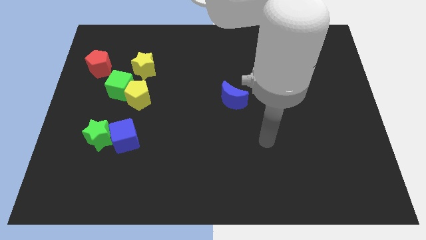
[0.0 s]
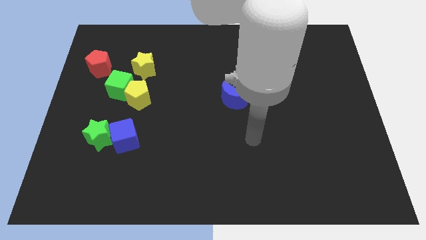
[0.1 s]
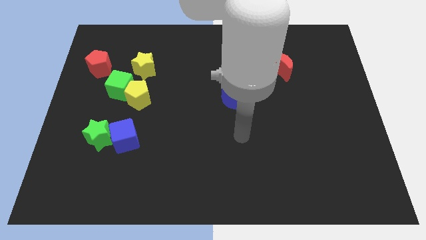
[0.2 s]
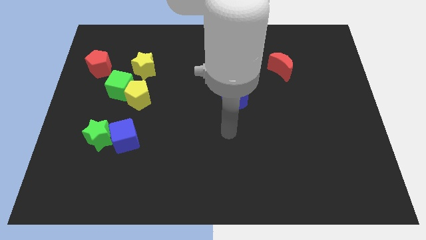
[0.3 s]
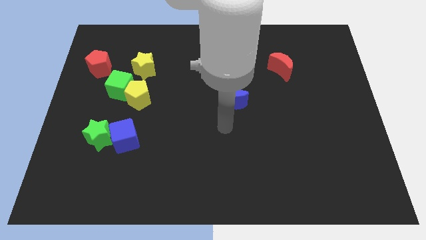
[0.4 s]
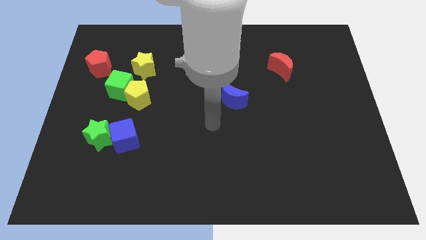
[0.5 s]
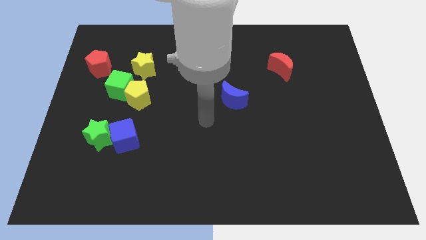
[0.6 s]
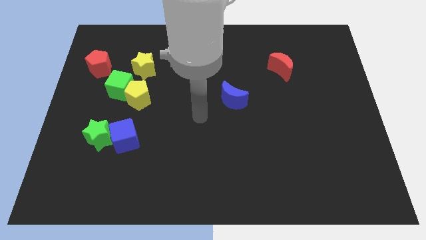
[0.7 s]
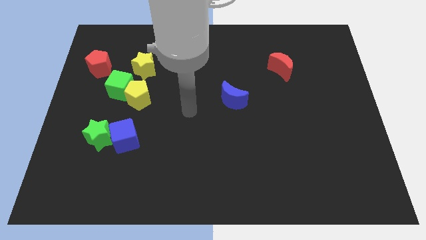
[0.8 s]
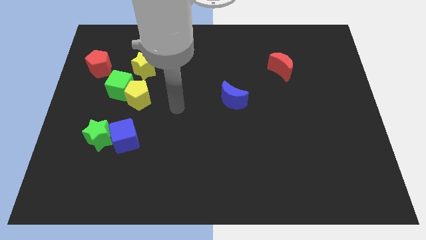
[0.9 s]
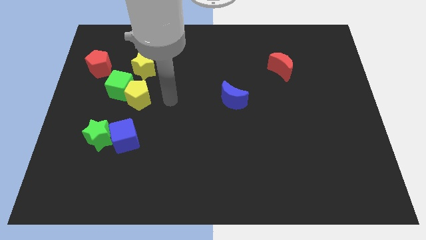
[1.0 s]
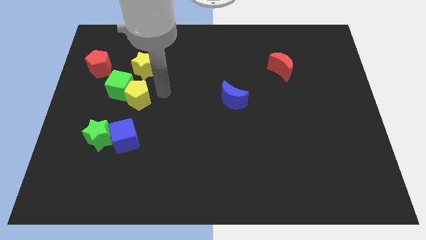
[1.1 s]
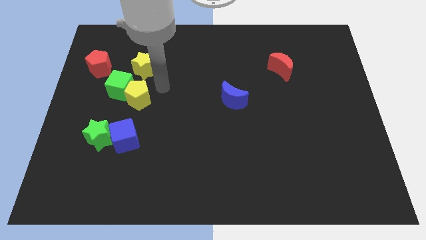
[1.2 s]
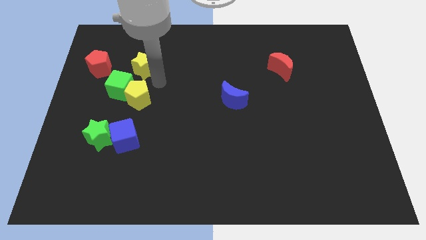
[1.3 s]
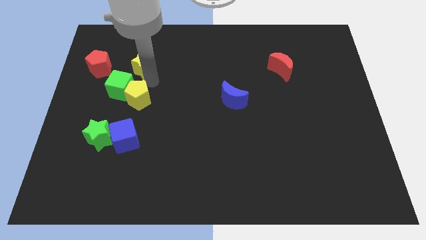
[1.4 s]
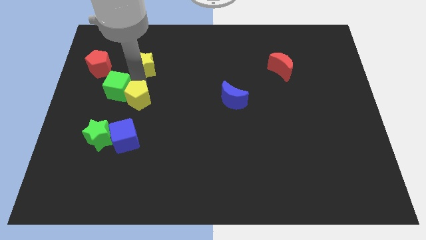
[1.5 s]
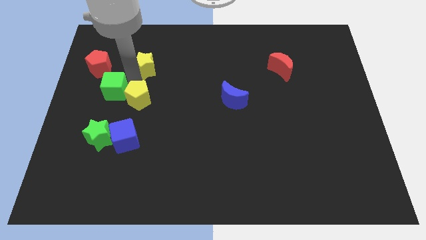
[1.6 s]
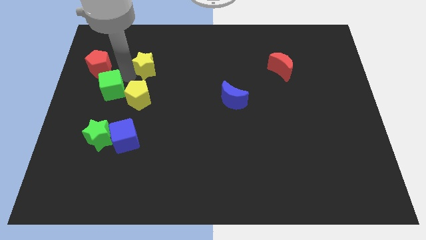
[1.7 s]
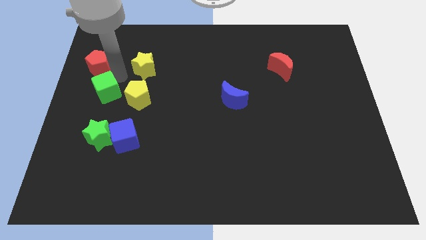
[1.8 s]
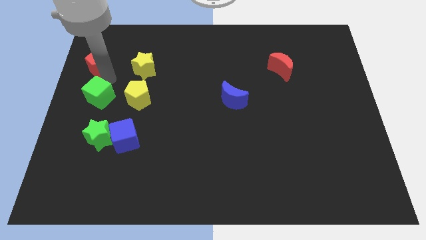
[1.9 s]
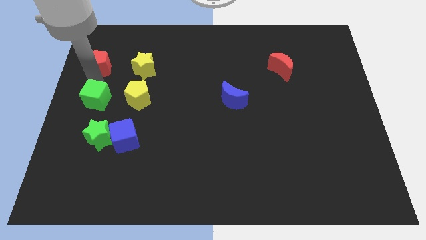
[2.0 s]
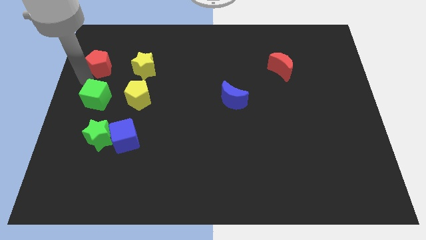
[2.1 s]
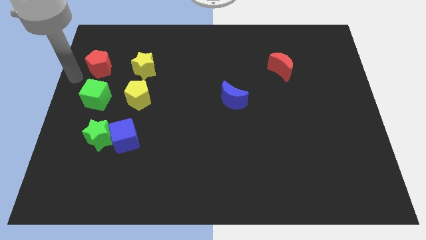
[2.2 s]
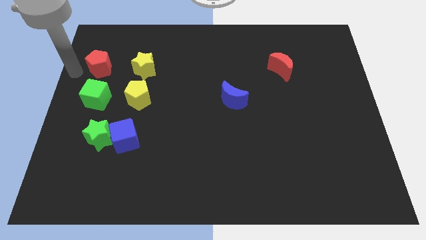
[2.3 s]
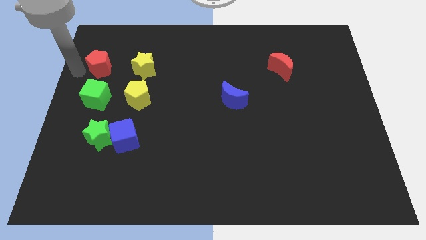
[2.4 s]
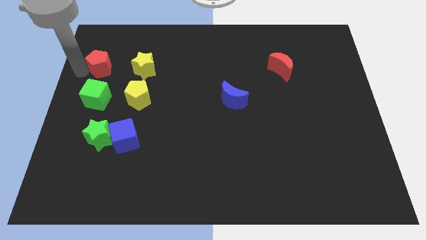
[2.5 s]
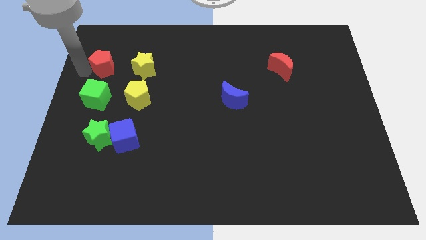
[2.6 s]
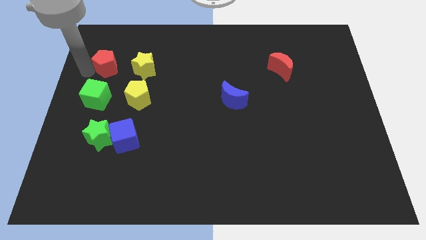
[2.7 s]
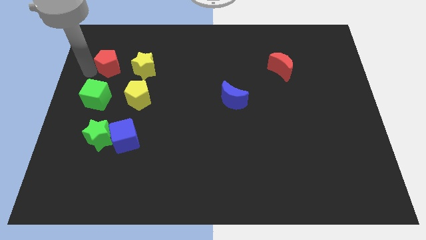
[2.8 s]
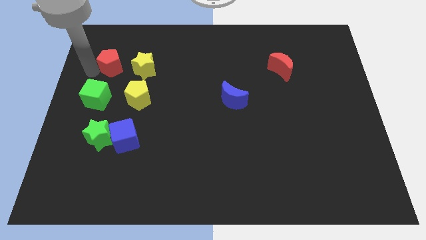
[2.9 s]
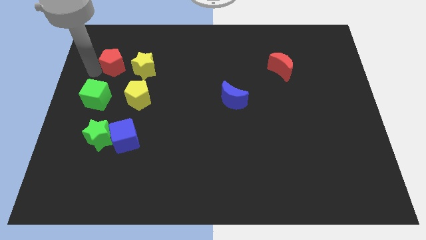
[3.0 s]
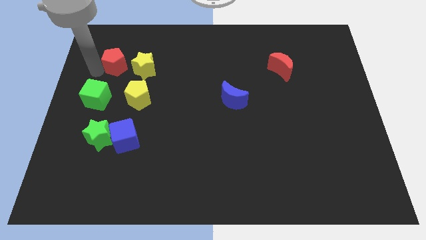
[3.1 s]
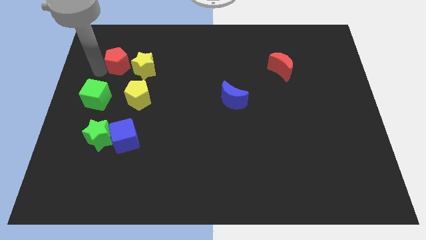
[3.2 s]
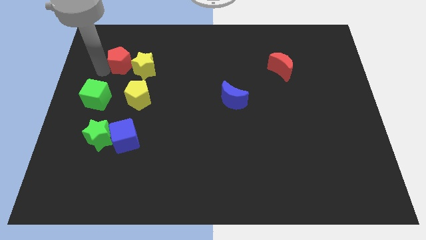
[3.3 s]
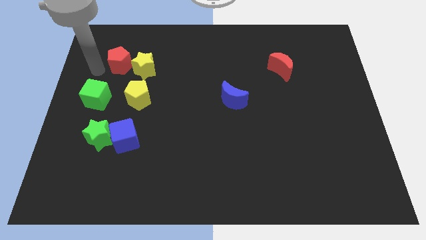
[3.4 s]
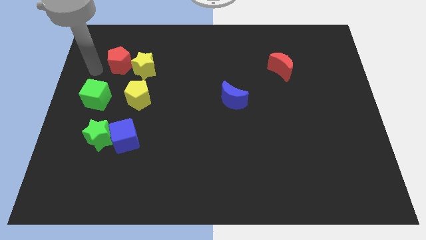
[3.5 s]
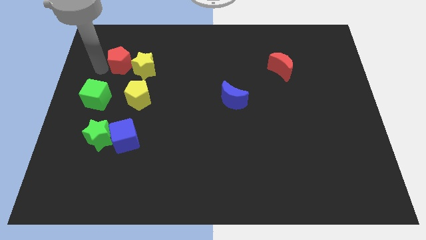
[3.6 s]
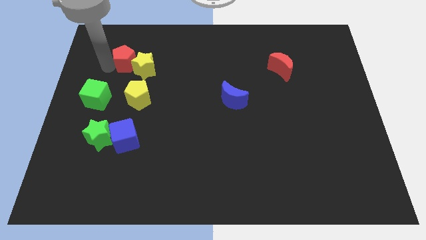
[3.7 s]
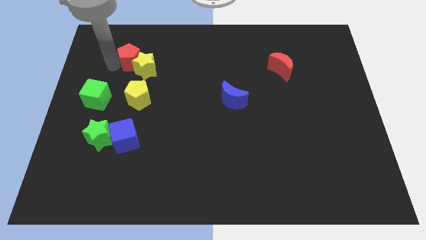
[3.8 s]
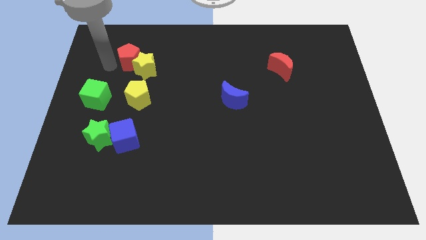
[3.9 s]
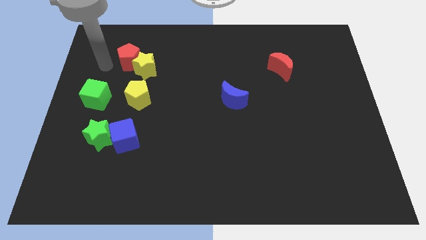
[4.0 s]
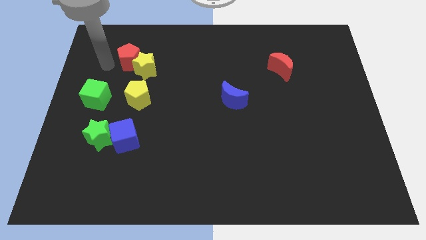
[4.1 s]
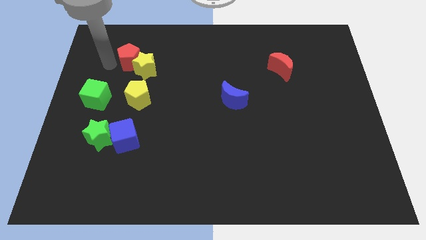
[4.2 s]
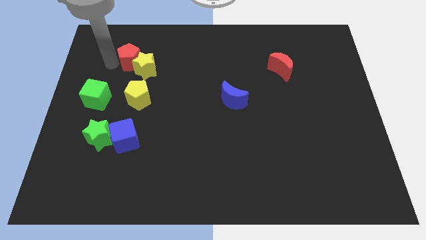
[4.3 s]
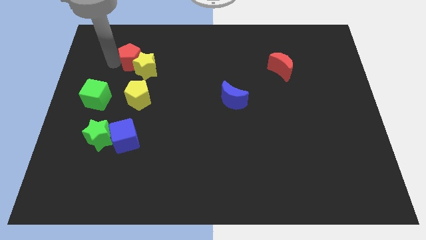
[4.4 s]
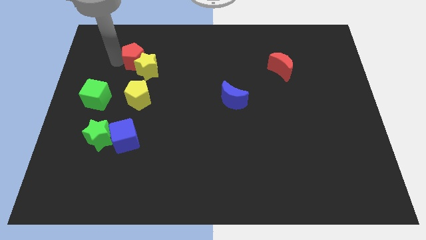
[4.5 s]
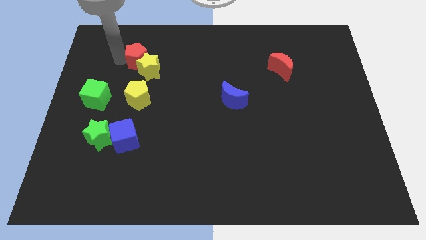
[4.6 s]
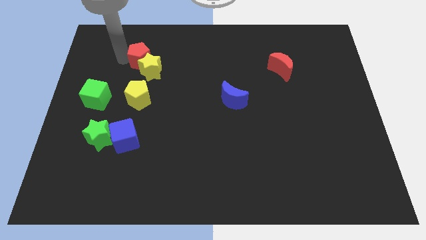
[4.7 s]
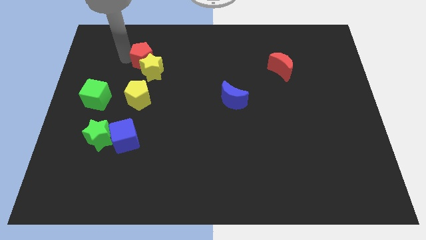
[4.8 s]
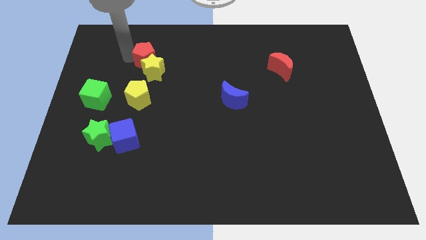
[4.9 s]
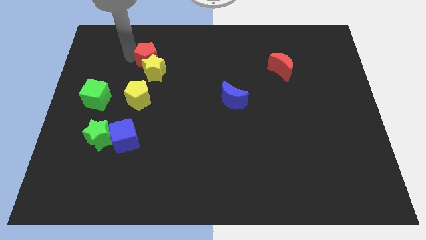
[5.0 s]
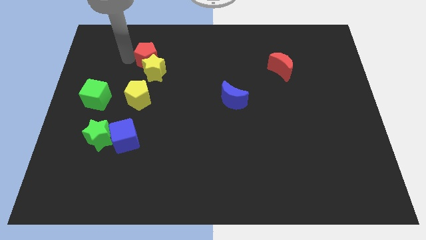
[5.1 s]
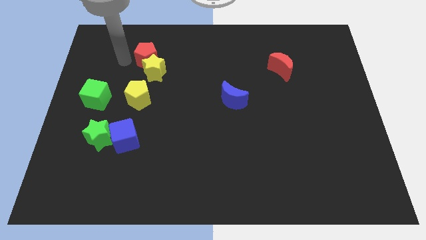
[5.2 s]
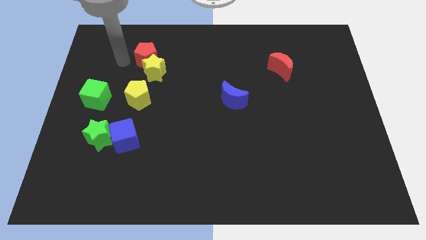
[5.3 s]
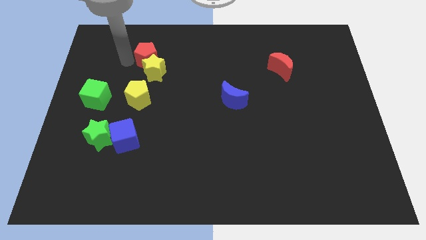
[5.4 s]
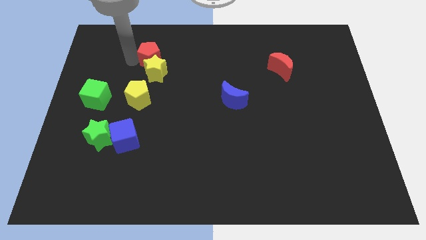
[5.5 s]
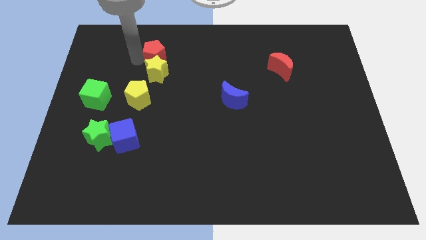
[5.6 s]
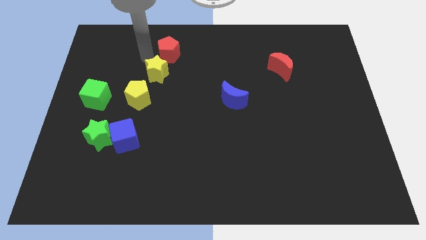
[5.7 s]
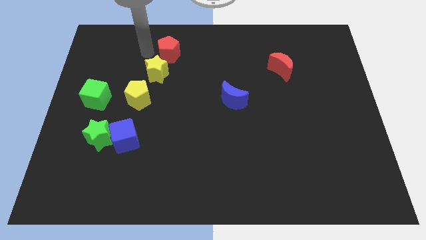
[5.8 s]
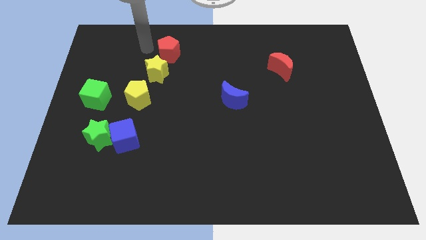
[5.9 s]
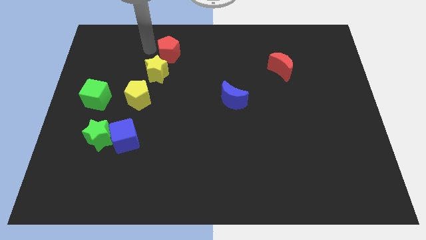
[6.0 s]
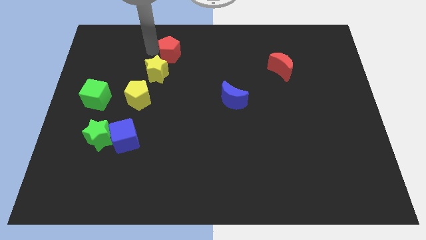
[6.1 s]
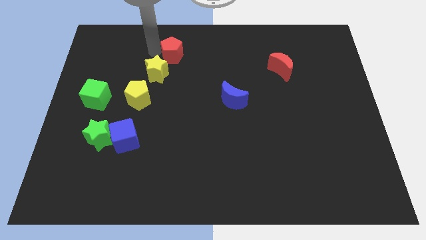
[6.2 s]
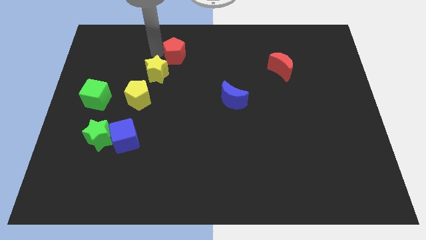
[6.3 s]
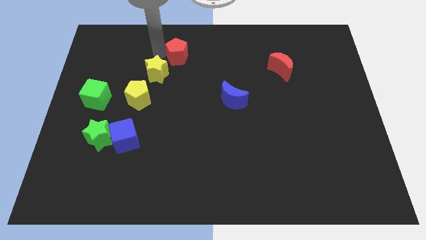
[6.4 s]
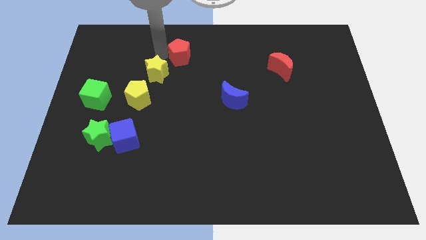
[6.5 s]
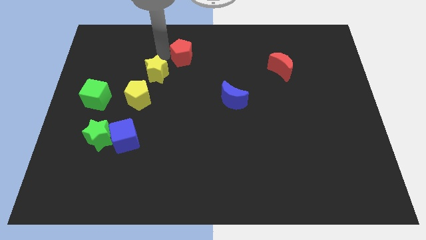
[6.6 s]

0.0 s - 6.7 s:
slide the red pentagon to the right

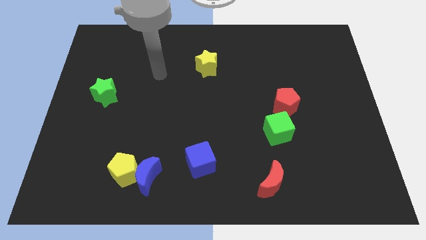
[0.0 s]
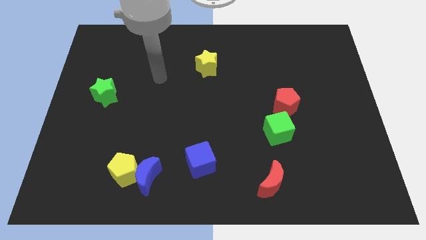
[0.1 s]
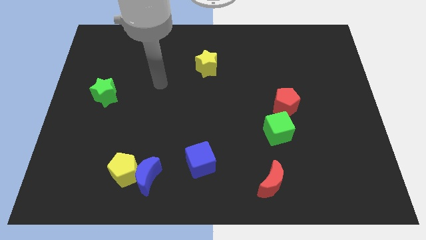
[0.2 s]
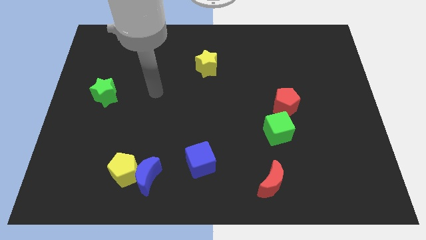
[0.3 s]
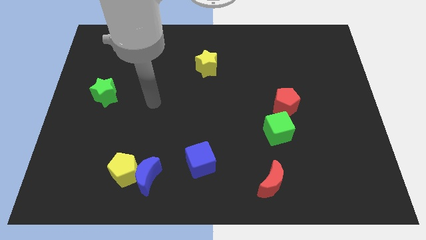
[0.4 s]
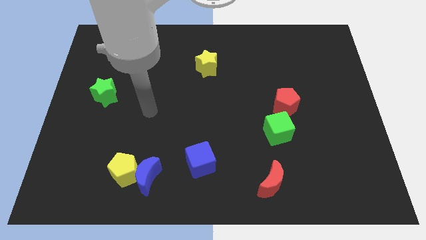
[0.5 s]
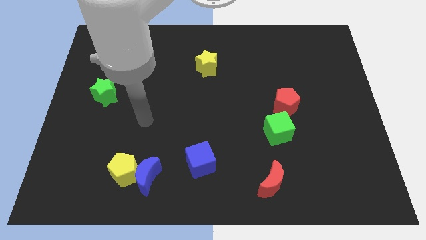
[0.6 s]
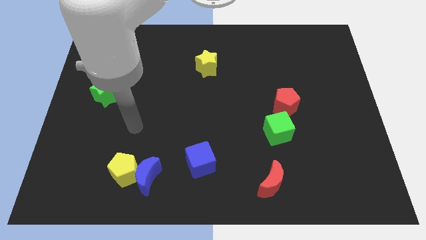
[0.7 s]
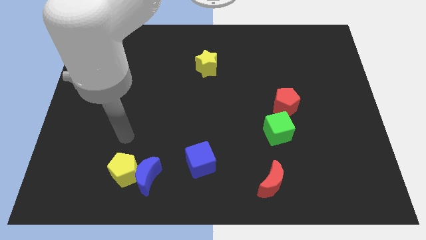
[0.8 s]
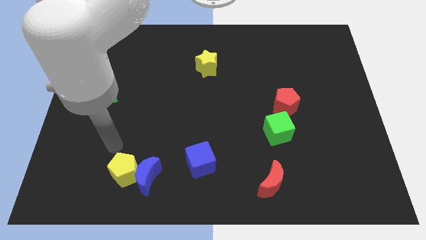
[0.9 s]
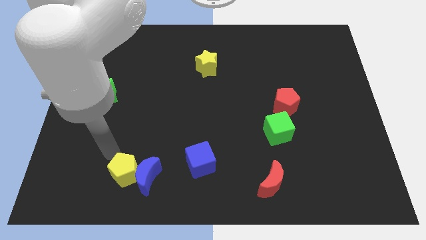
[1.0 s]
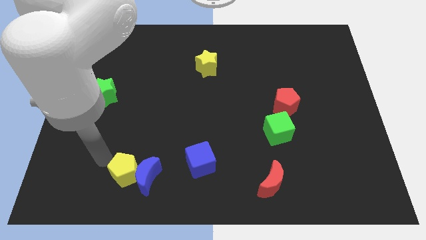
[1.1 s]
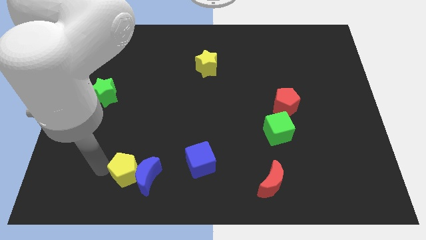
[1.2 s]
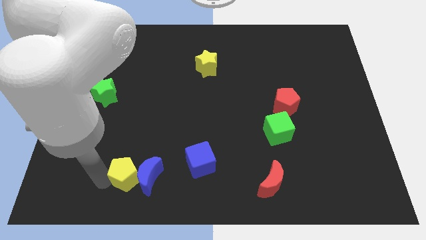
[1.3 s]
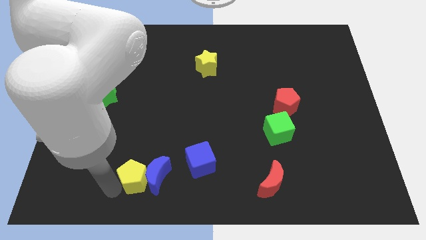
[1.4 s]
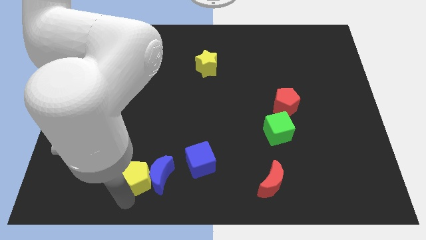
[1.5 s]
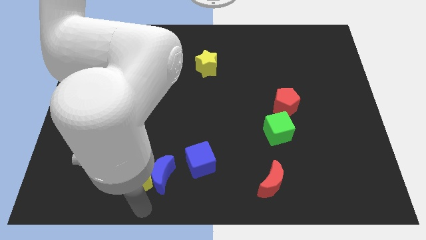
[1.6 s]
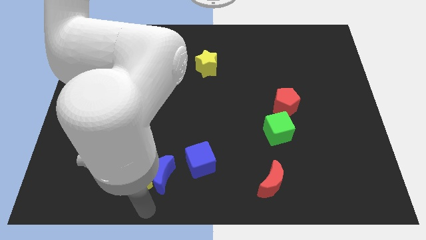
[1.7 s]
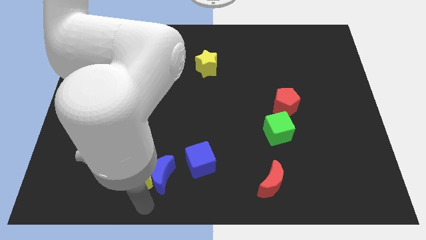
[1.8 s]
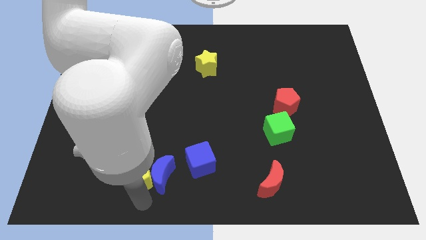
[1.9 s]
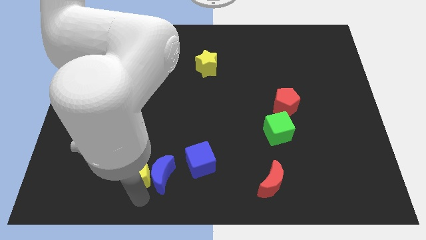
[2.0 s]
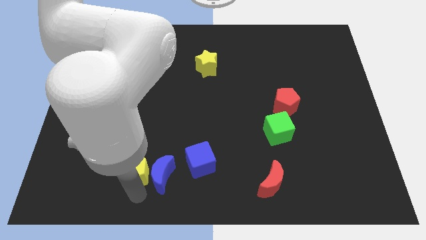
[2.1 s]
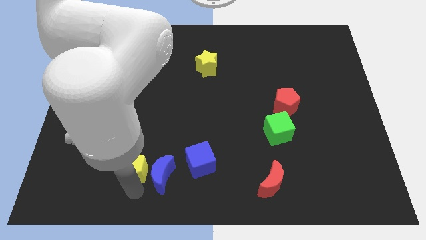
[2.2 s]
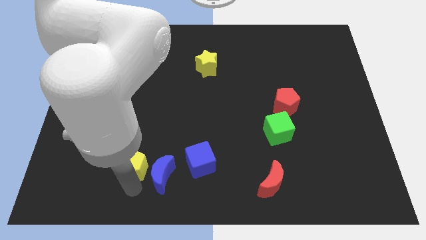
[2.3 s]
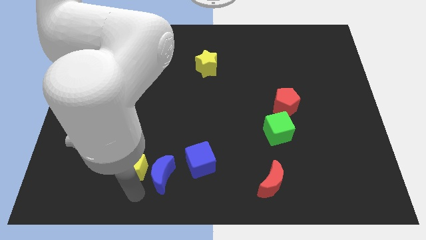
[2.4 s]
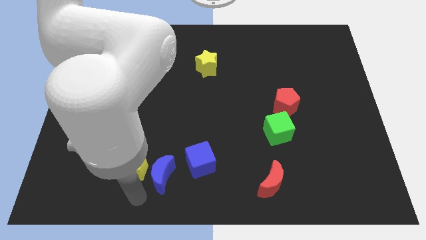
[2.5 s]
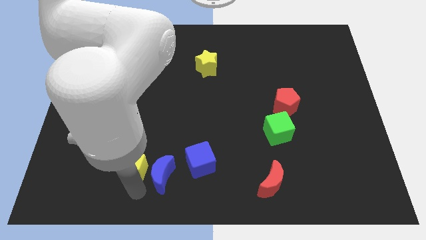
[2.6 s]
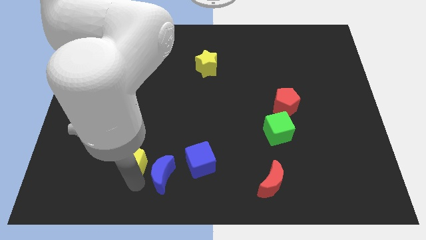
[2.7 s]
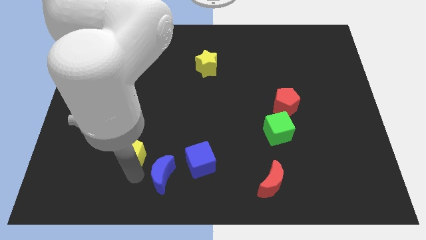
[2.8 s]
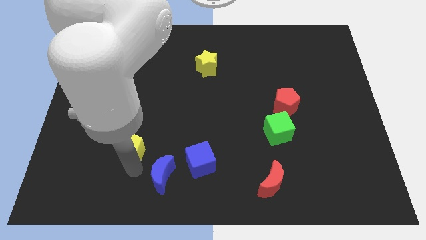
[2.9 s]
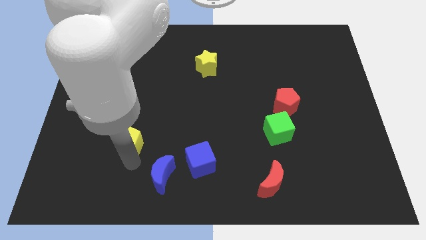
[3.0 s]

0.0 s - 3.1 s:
slide the yellow pentagon up a bit
